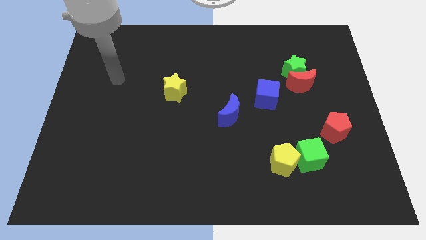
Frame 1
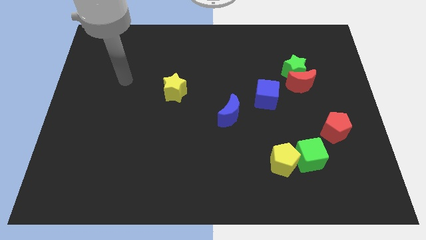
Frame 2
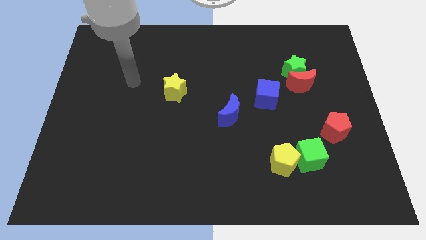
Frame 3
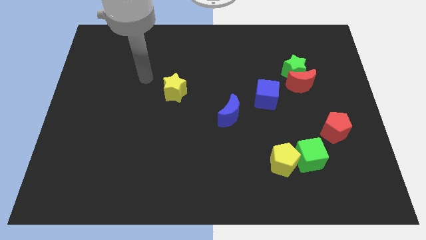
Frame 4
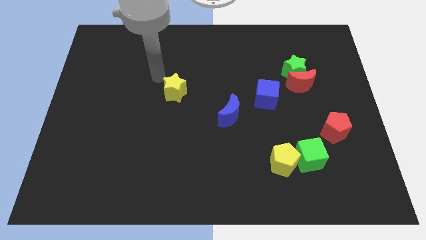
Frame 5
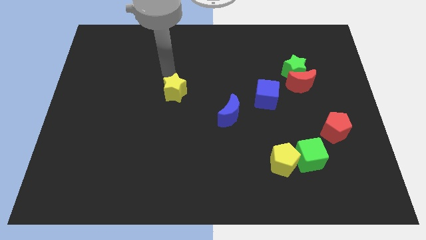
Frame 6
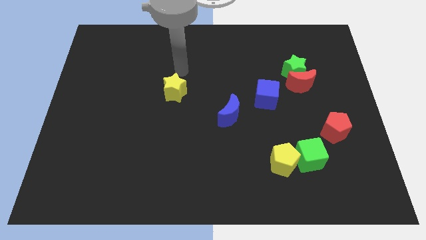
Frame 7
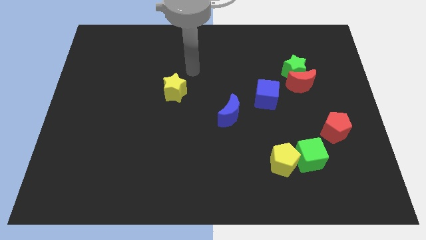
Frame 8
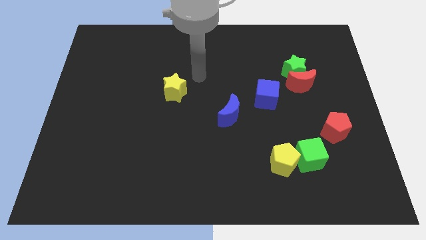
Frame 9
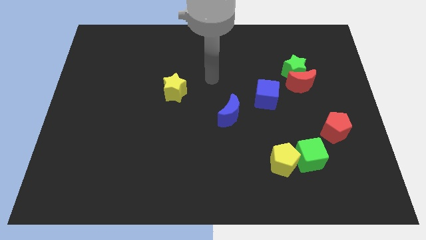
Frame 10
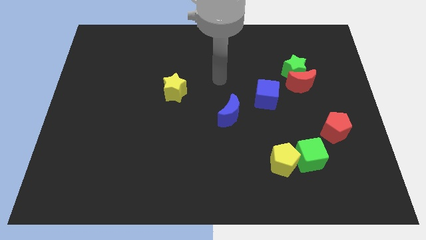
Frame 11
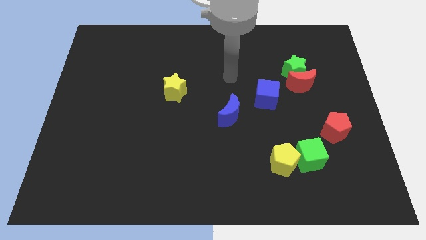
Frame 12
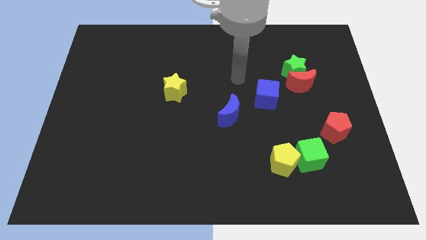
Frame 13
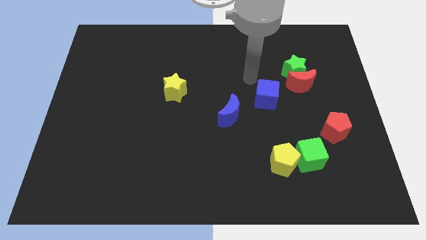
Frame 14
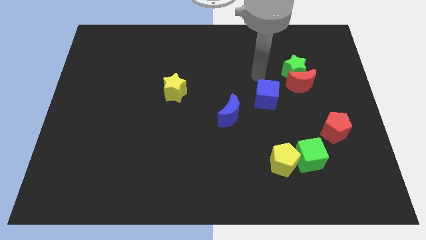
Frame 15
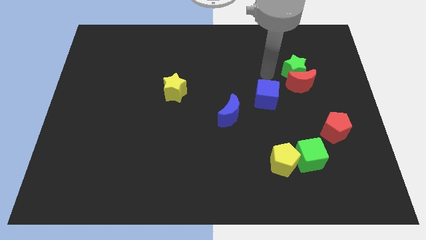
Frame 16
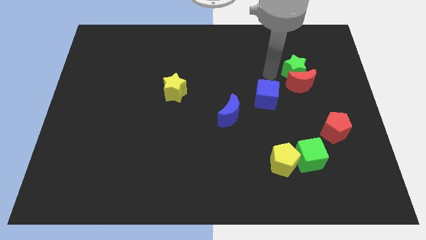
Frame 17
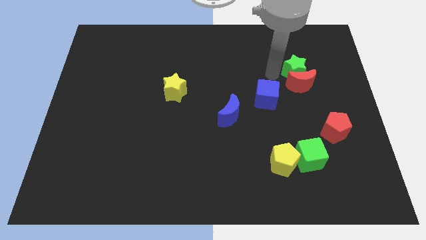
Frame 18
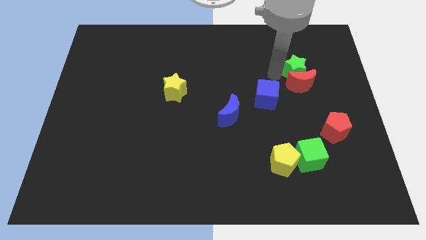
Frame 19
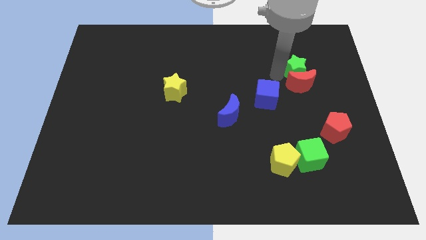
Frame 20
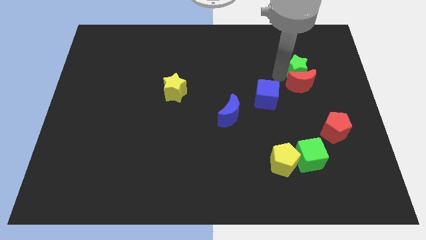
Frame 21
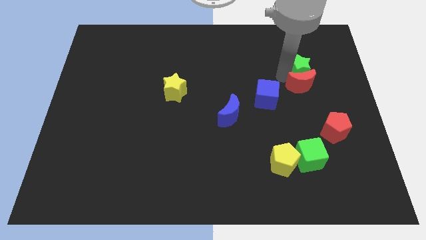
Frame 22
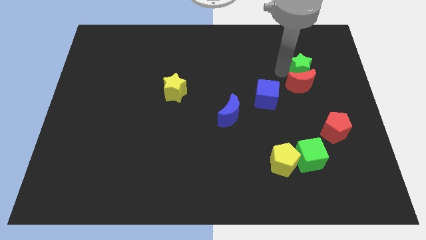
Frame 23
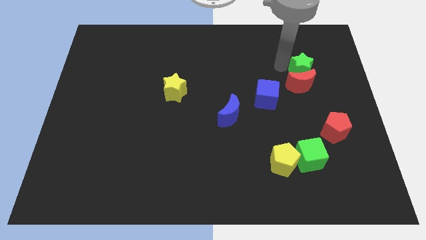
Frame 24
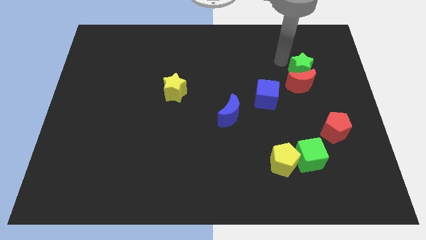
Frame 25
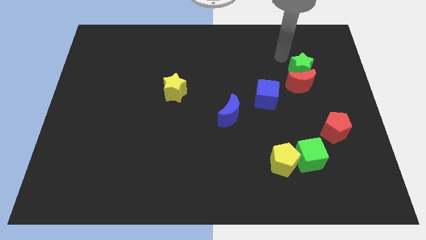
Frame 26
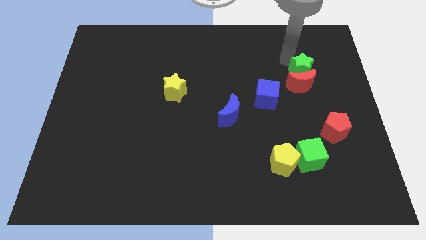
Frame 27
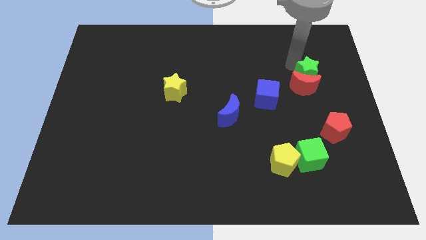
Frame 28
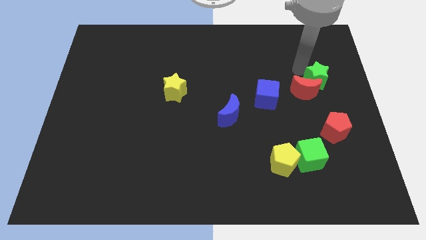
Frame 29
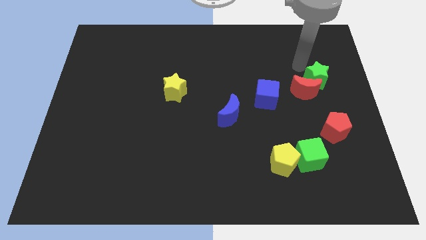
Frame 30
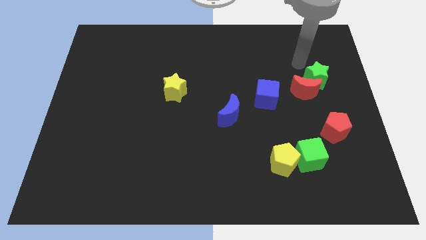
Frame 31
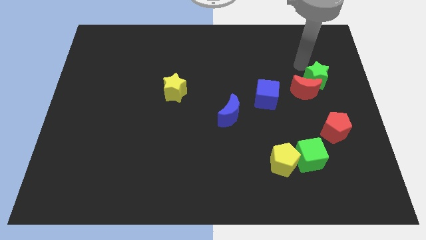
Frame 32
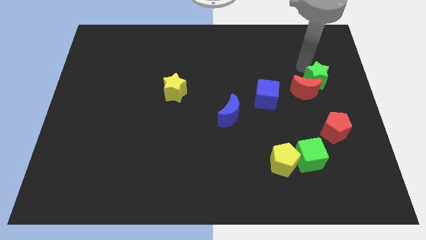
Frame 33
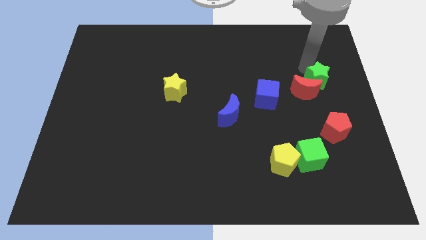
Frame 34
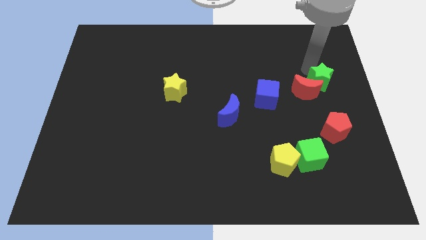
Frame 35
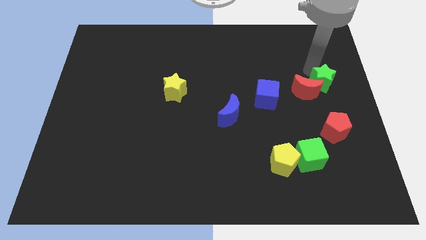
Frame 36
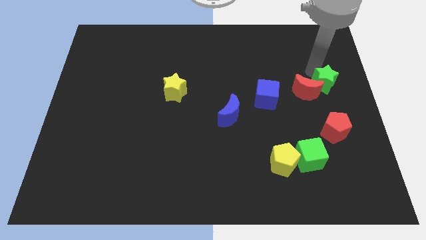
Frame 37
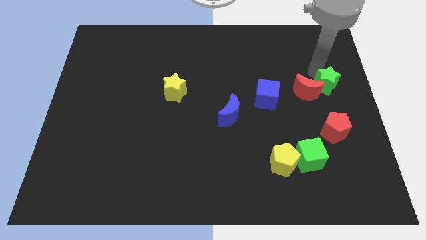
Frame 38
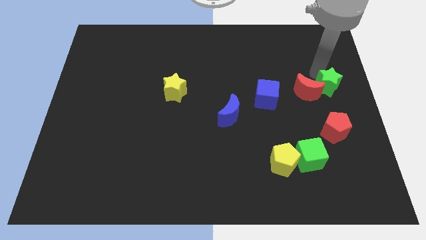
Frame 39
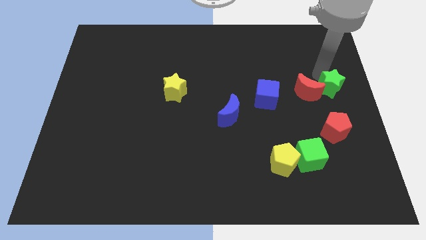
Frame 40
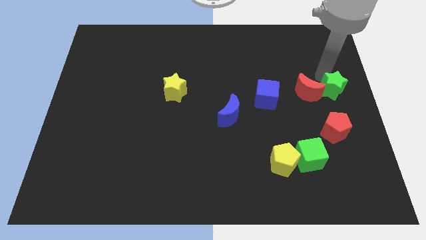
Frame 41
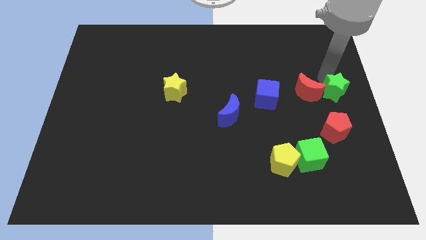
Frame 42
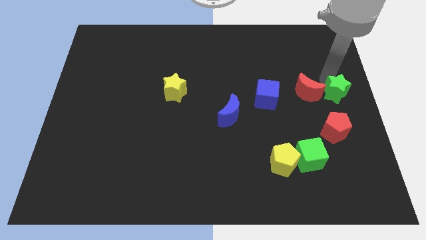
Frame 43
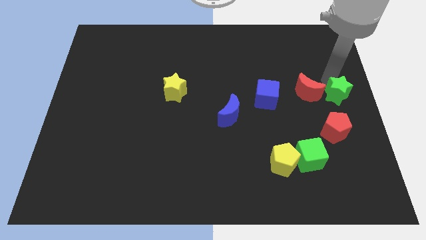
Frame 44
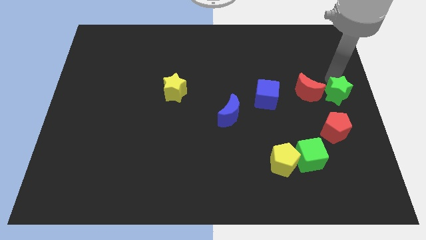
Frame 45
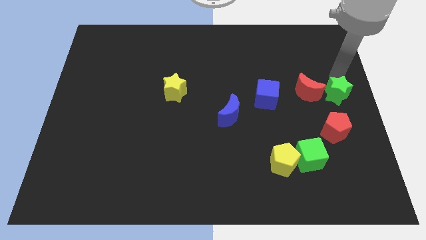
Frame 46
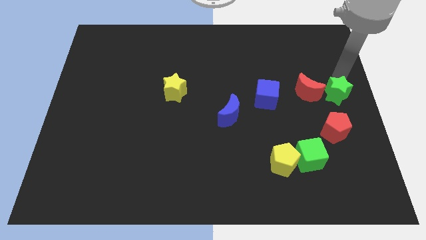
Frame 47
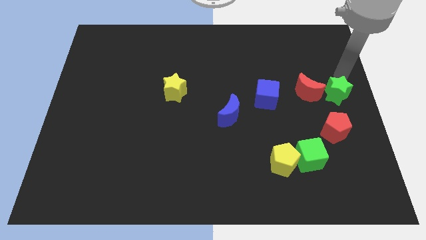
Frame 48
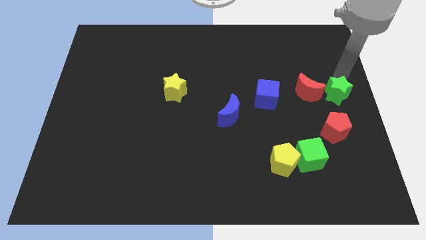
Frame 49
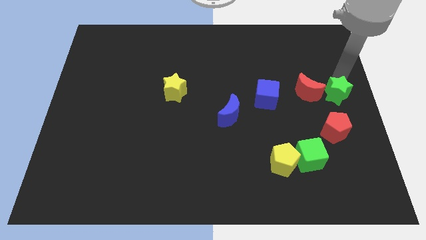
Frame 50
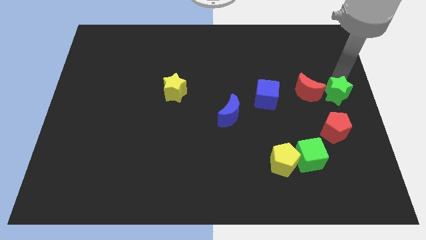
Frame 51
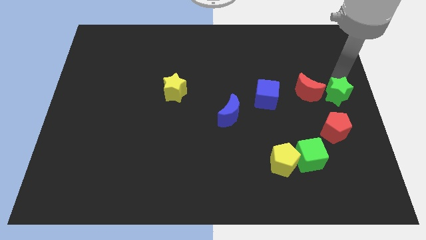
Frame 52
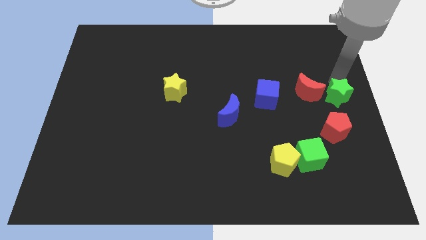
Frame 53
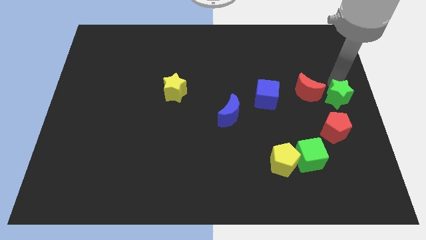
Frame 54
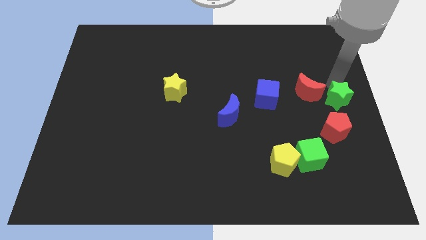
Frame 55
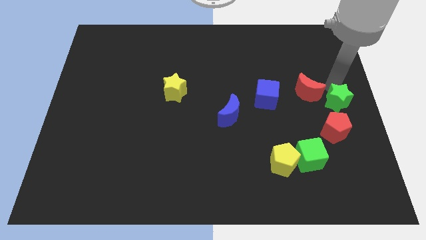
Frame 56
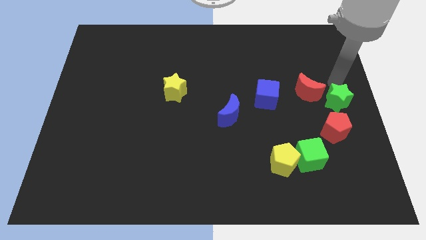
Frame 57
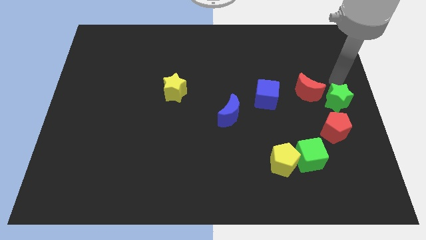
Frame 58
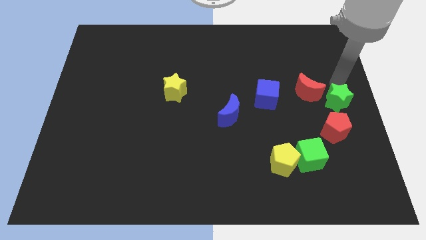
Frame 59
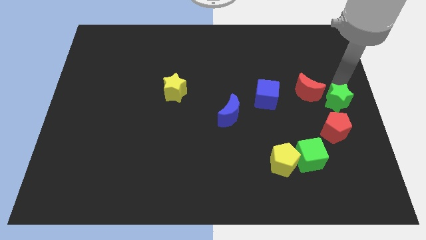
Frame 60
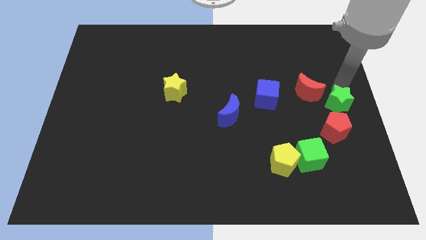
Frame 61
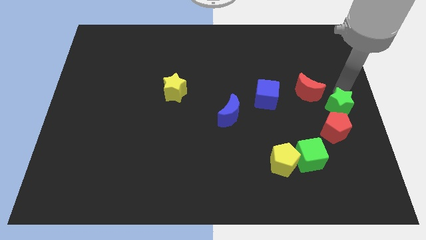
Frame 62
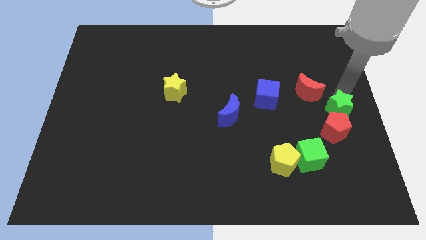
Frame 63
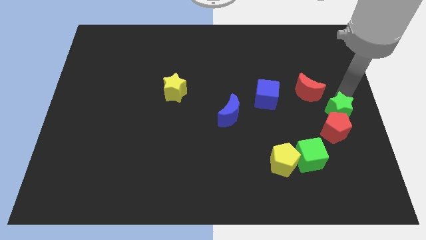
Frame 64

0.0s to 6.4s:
put the green star towards the red pentagon

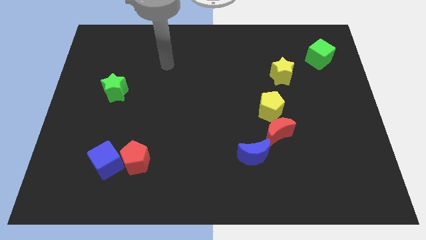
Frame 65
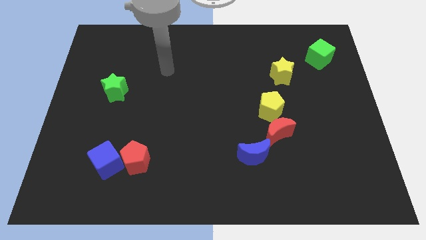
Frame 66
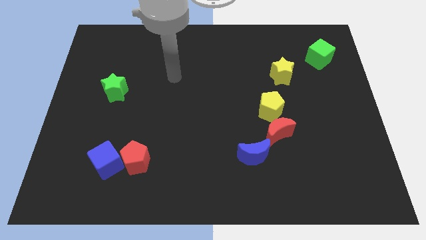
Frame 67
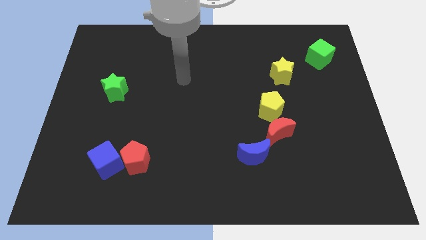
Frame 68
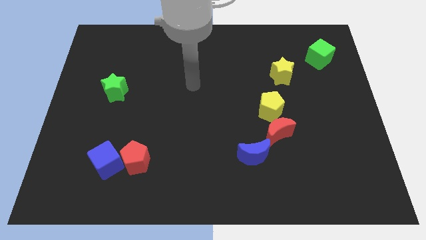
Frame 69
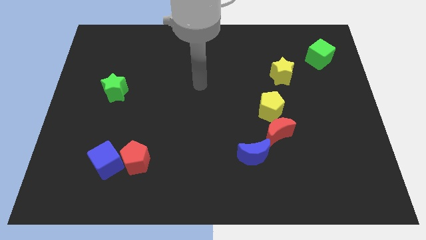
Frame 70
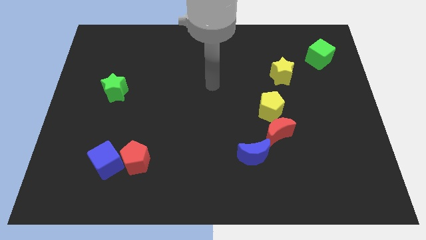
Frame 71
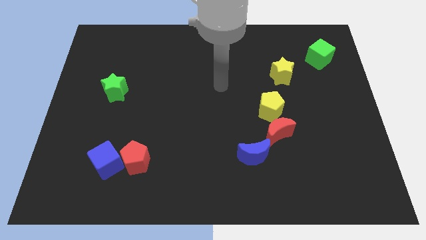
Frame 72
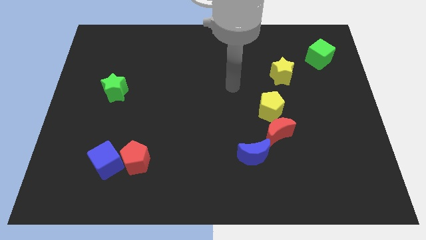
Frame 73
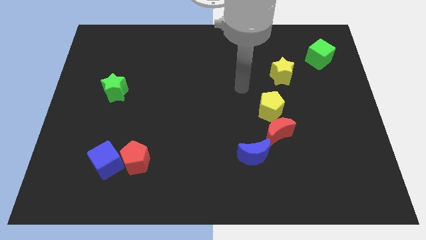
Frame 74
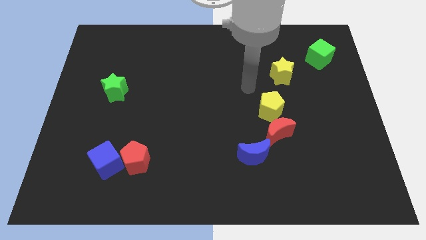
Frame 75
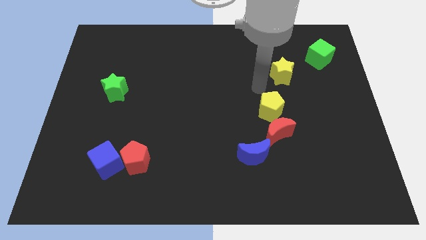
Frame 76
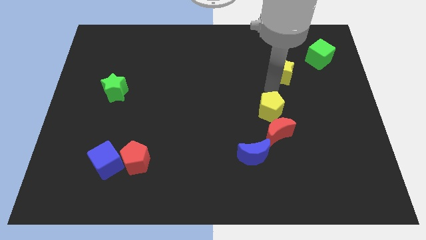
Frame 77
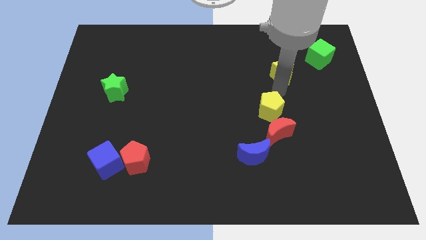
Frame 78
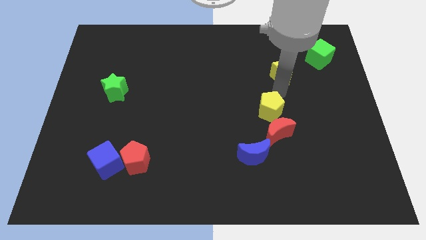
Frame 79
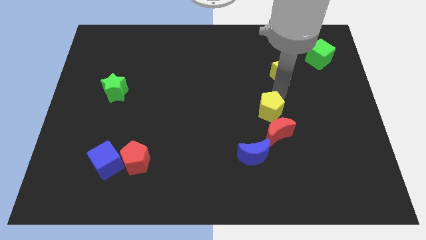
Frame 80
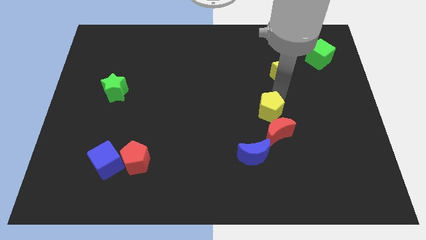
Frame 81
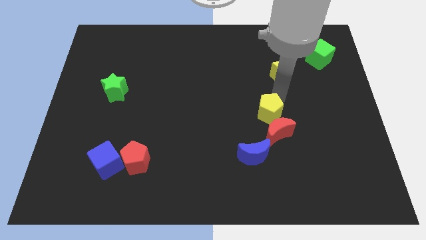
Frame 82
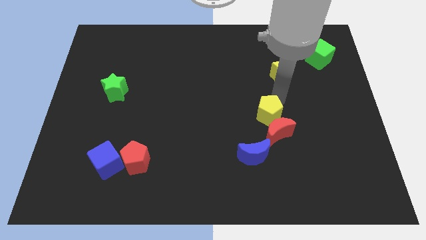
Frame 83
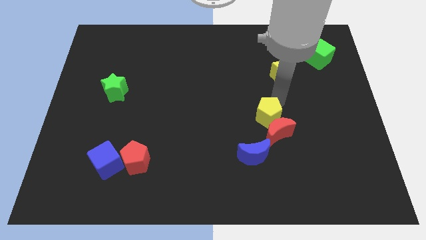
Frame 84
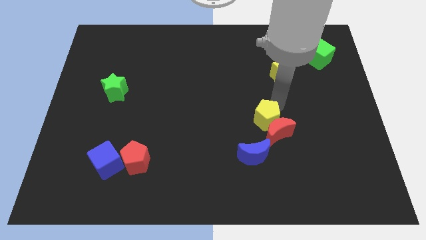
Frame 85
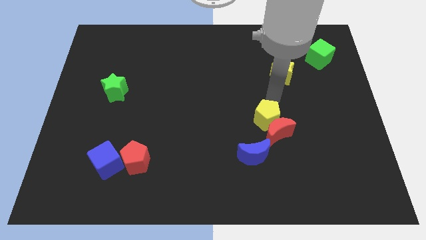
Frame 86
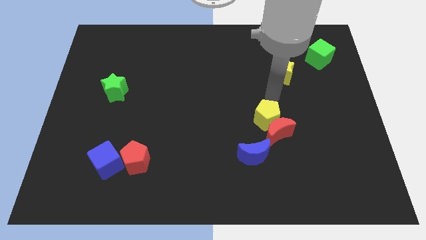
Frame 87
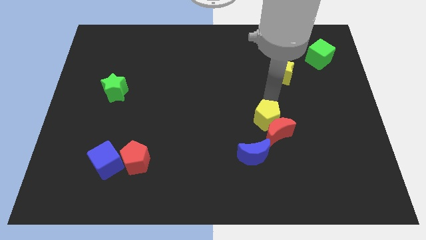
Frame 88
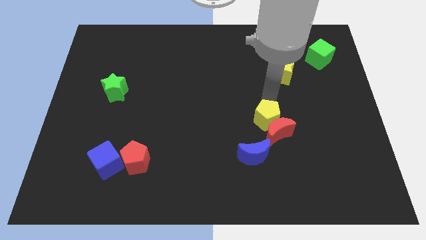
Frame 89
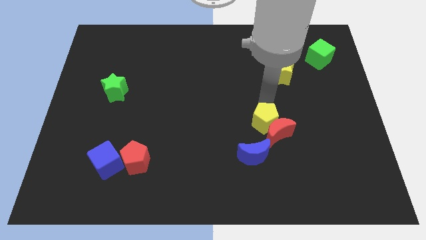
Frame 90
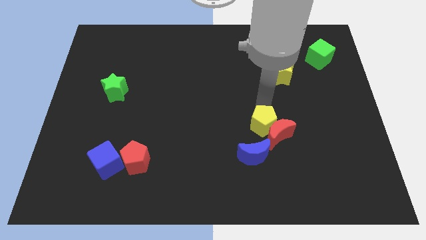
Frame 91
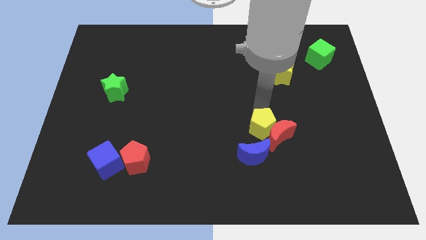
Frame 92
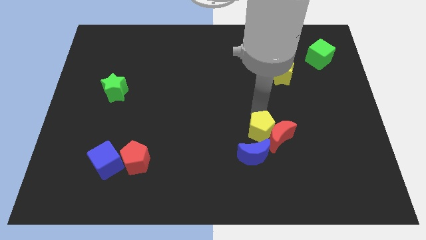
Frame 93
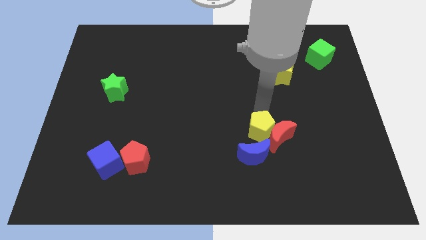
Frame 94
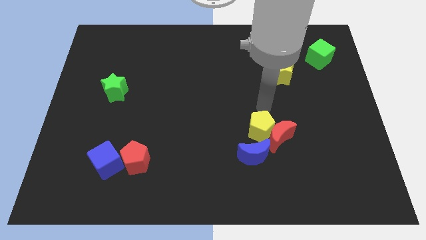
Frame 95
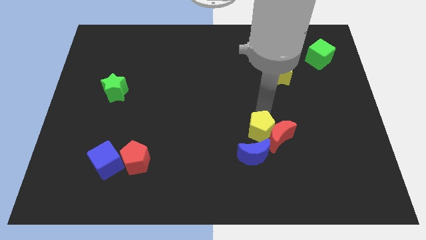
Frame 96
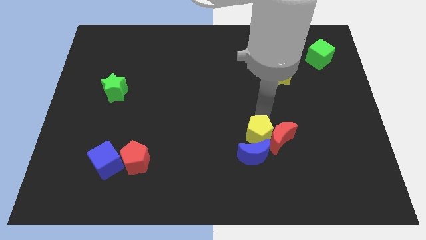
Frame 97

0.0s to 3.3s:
move the yellow pentagon to the blue moon
